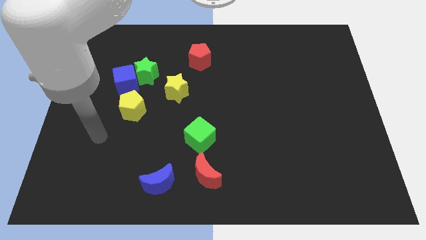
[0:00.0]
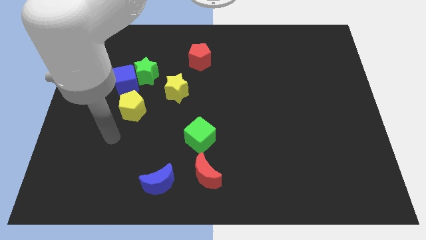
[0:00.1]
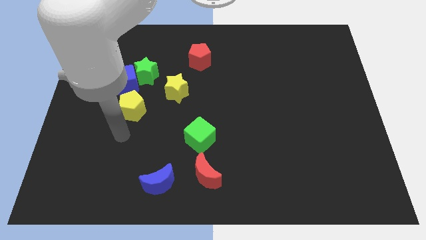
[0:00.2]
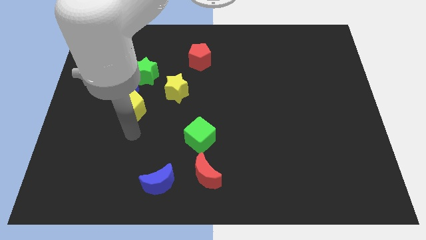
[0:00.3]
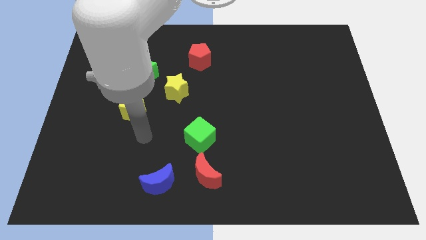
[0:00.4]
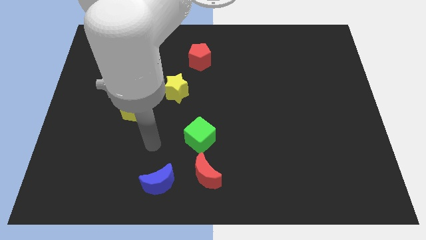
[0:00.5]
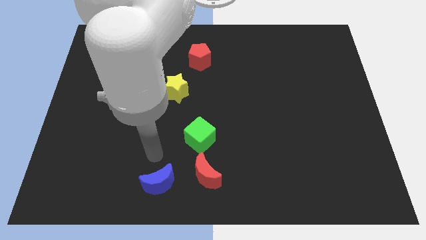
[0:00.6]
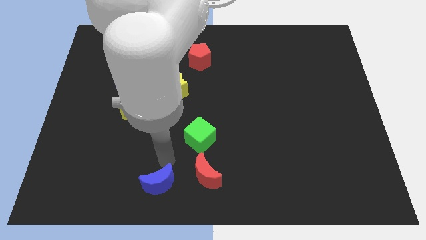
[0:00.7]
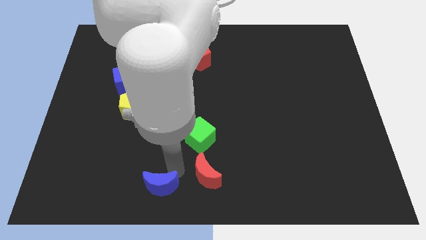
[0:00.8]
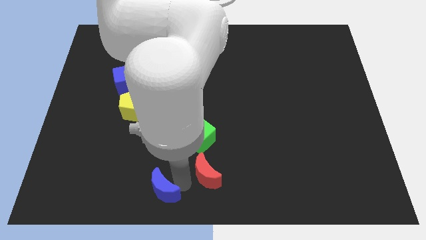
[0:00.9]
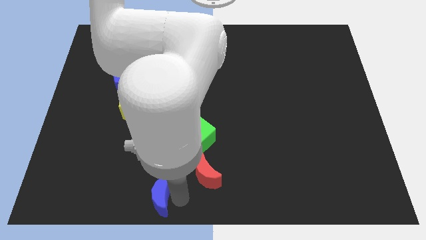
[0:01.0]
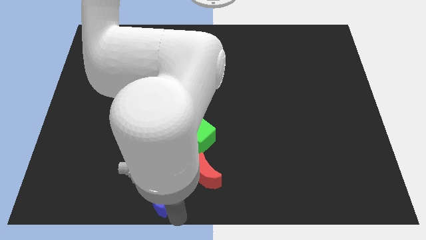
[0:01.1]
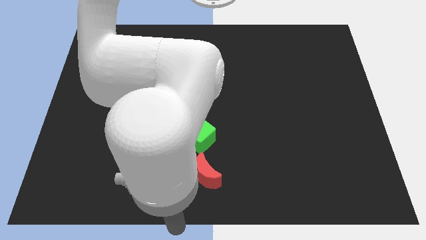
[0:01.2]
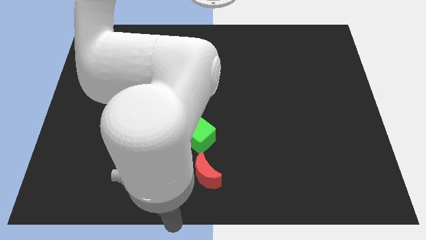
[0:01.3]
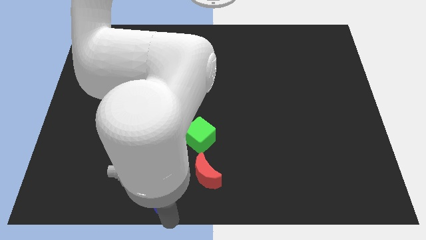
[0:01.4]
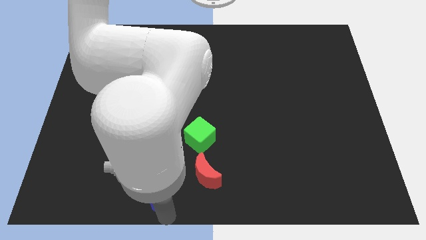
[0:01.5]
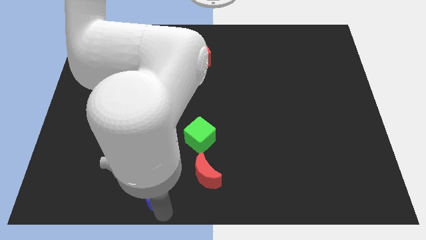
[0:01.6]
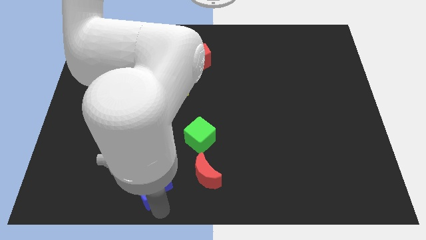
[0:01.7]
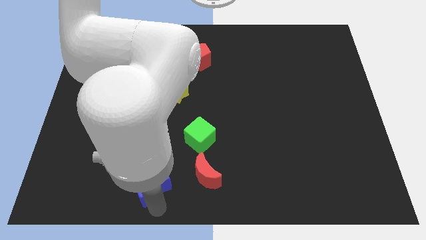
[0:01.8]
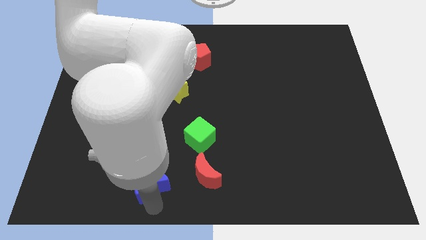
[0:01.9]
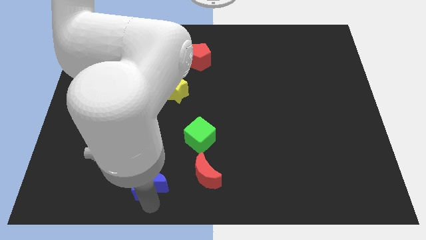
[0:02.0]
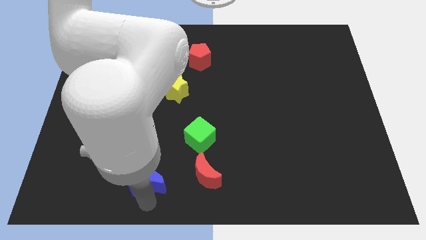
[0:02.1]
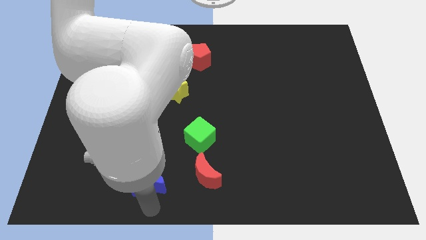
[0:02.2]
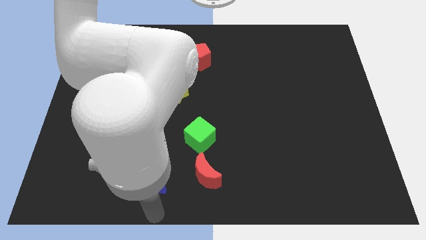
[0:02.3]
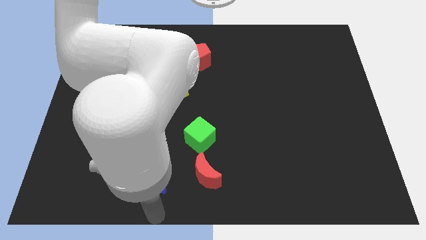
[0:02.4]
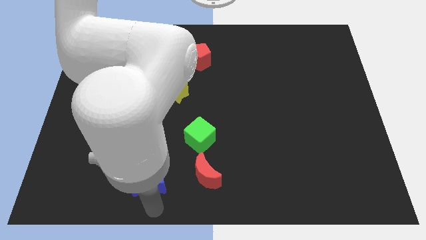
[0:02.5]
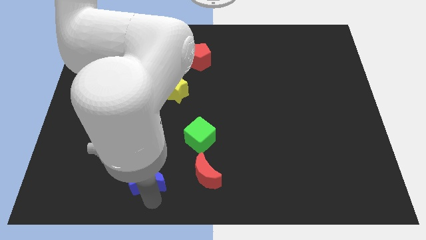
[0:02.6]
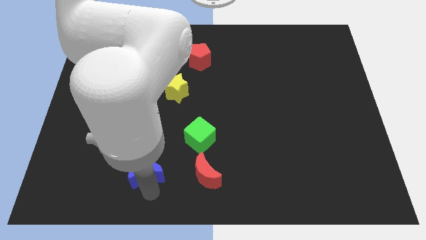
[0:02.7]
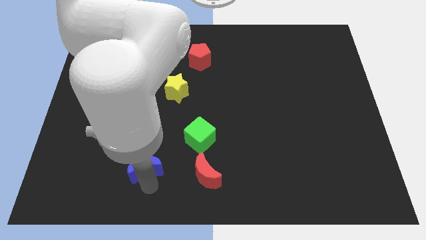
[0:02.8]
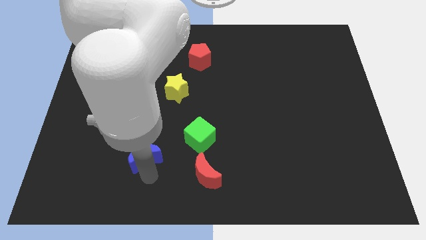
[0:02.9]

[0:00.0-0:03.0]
push the blue moon up and left slightly

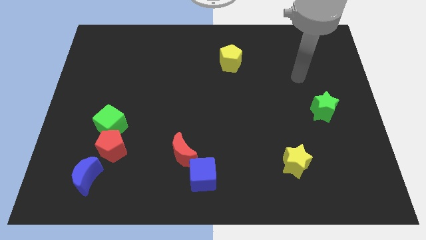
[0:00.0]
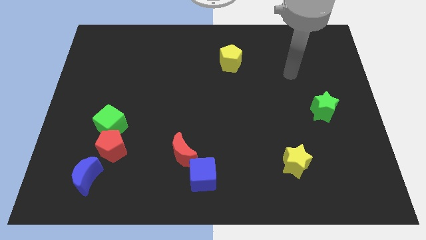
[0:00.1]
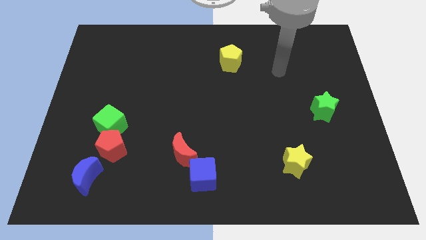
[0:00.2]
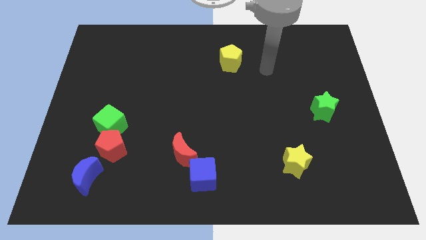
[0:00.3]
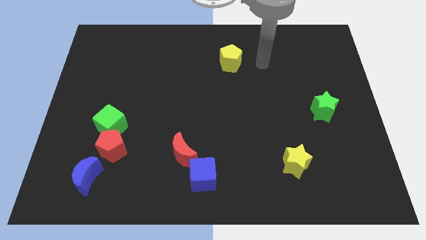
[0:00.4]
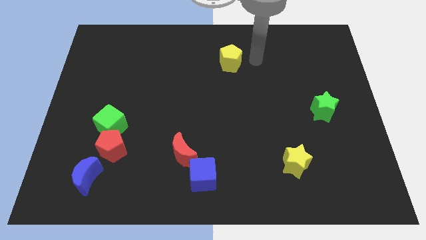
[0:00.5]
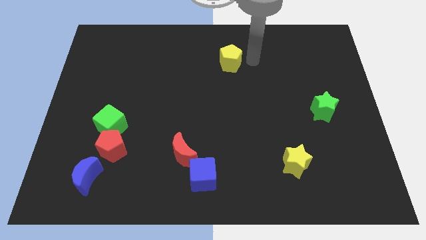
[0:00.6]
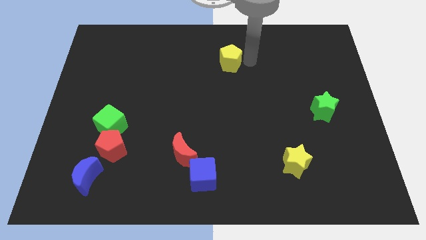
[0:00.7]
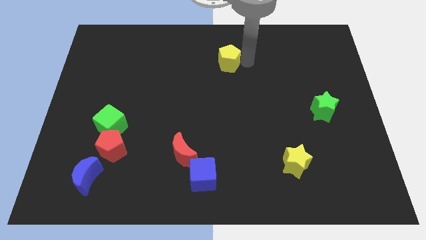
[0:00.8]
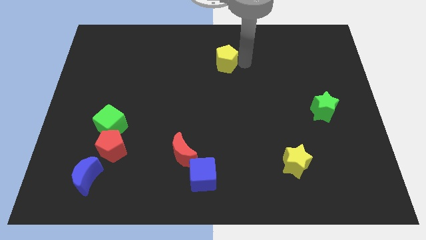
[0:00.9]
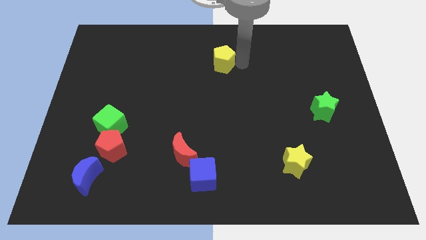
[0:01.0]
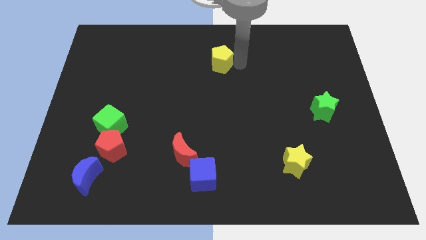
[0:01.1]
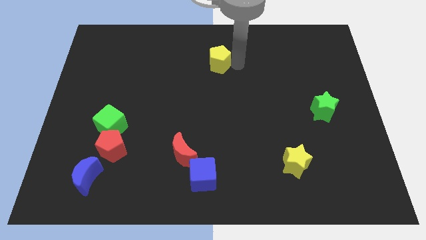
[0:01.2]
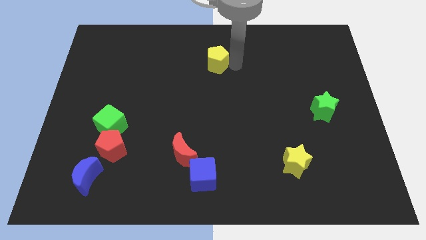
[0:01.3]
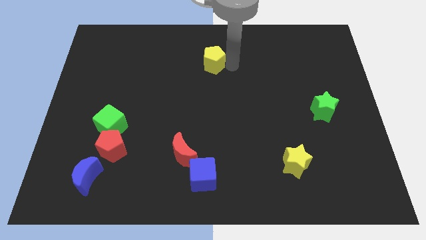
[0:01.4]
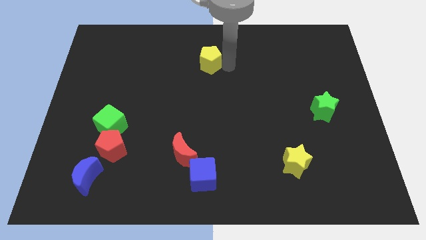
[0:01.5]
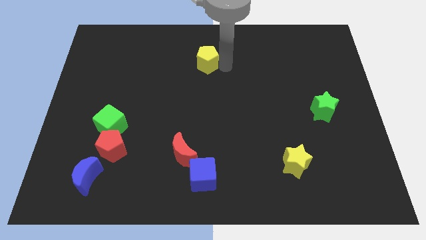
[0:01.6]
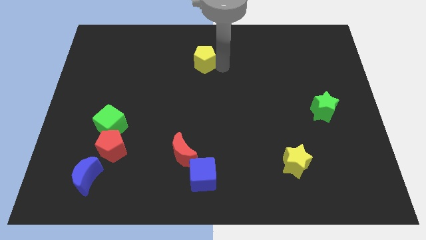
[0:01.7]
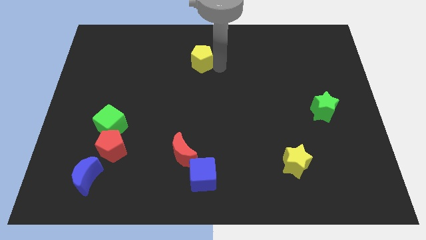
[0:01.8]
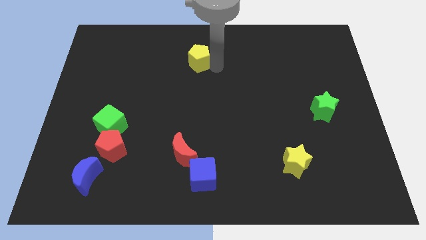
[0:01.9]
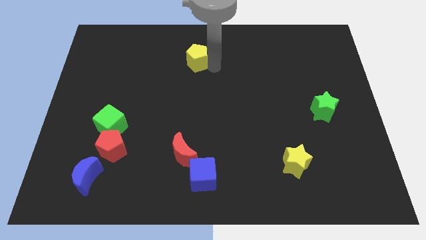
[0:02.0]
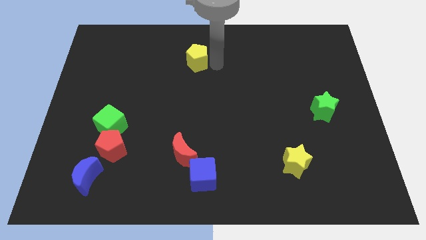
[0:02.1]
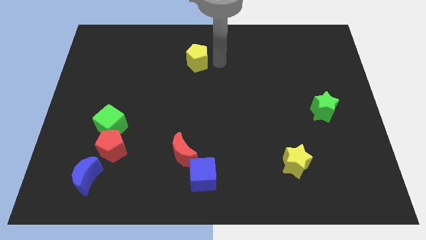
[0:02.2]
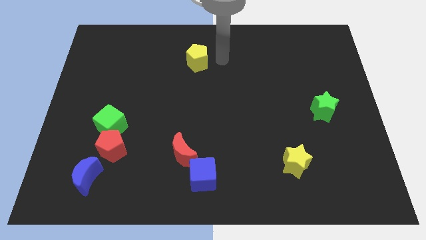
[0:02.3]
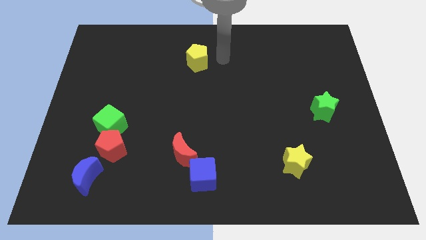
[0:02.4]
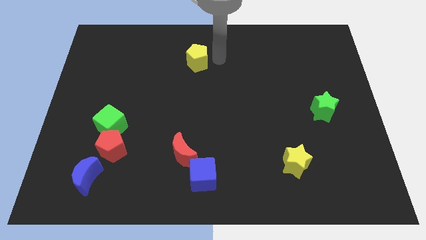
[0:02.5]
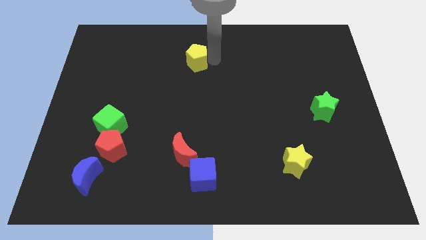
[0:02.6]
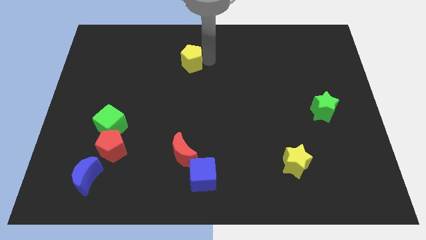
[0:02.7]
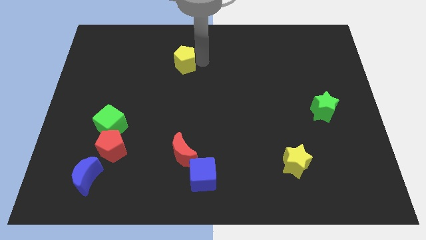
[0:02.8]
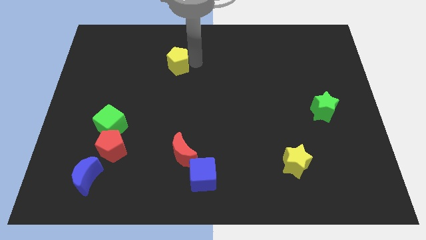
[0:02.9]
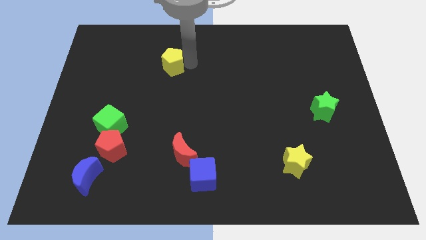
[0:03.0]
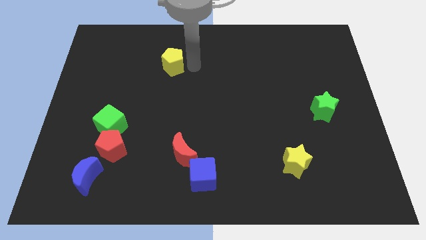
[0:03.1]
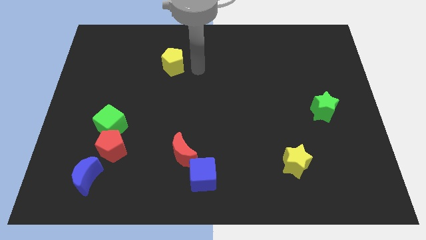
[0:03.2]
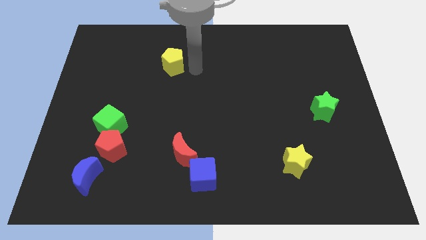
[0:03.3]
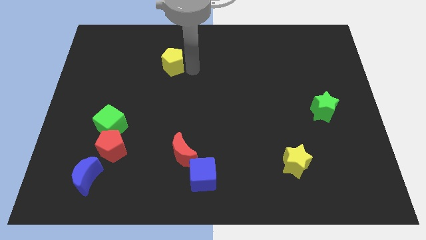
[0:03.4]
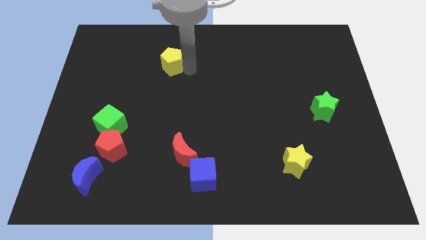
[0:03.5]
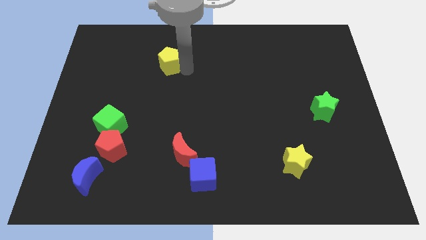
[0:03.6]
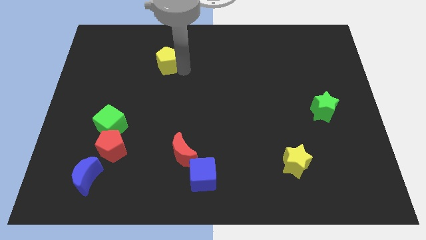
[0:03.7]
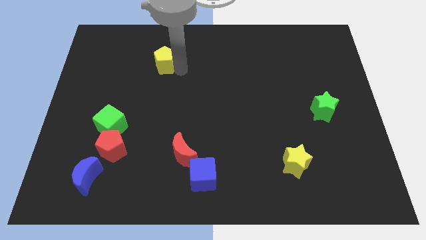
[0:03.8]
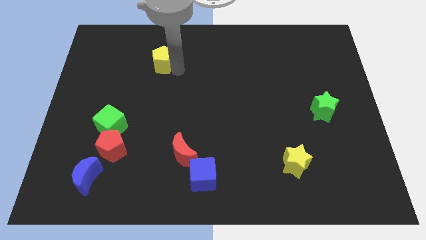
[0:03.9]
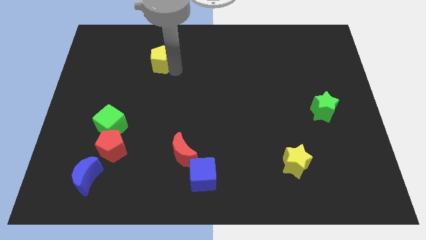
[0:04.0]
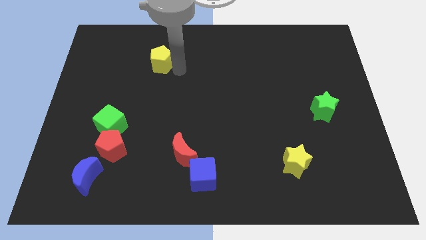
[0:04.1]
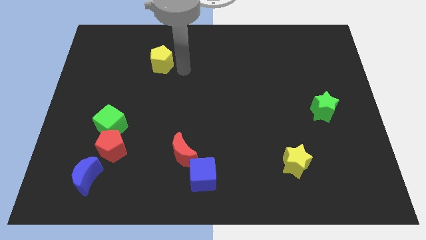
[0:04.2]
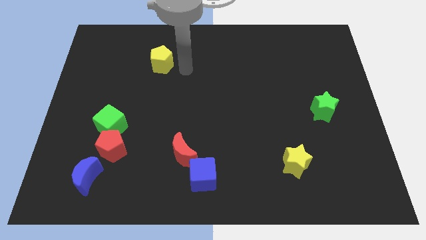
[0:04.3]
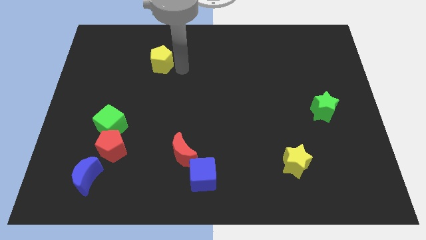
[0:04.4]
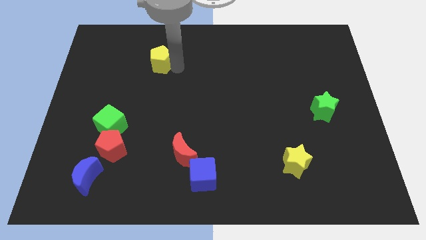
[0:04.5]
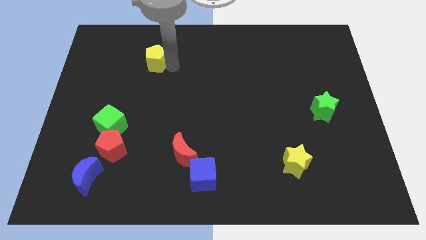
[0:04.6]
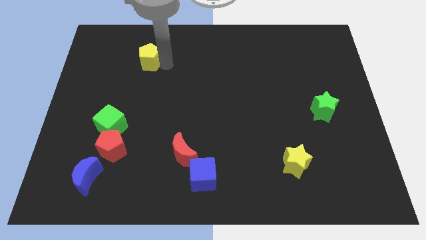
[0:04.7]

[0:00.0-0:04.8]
move the yellow pentagon to the left

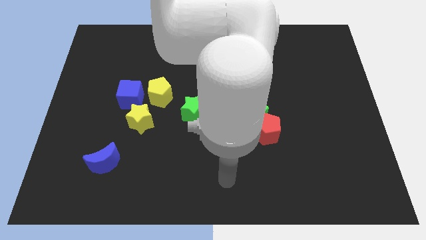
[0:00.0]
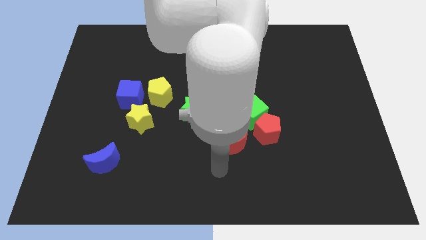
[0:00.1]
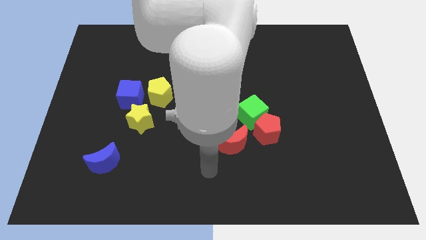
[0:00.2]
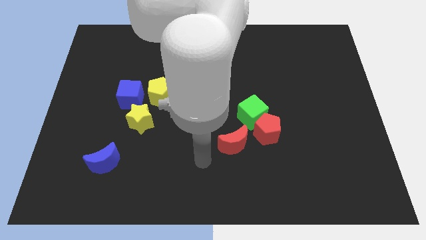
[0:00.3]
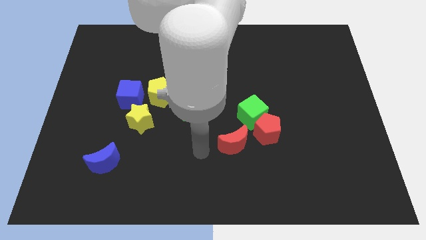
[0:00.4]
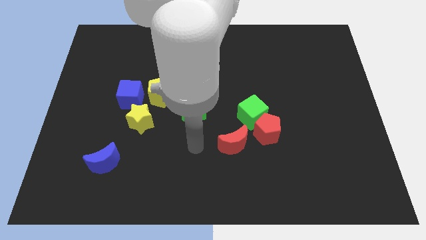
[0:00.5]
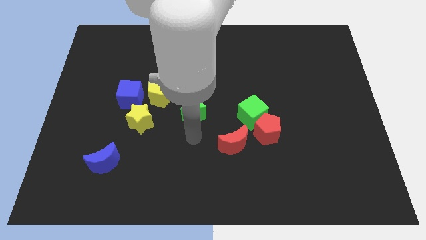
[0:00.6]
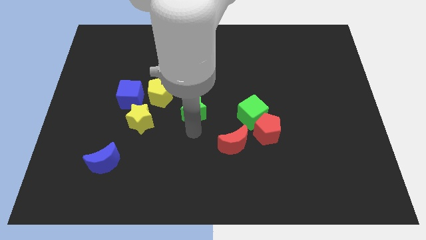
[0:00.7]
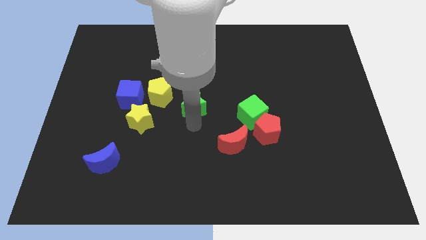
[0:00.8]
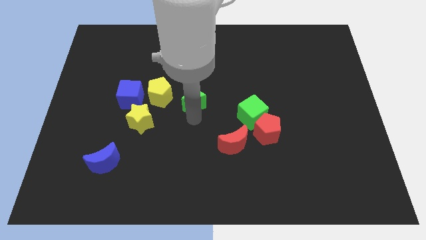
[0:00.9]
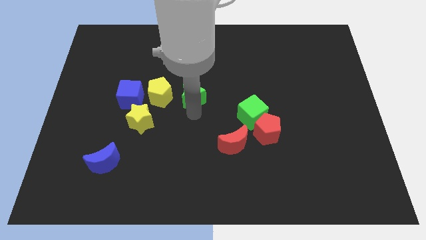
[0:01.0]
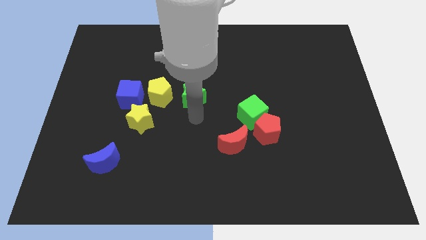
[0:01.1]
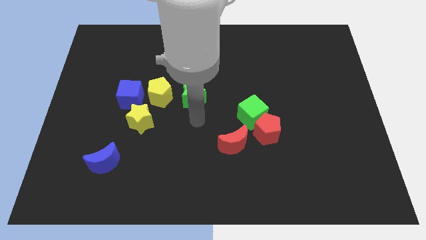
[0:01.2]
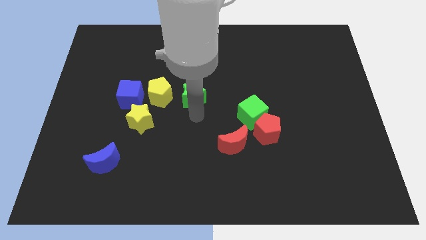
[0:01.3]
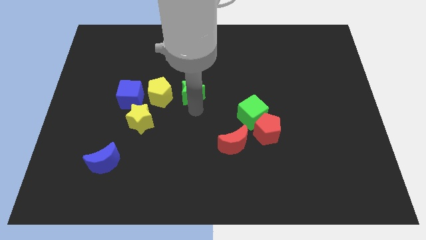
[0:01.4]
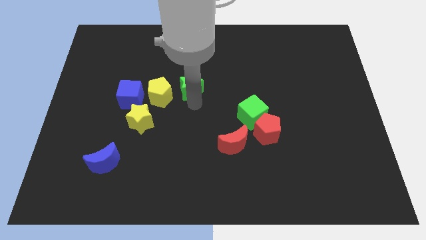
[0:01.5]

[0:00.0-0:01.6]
push the green star somewhat up
